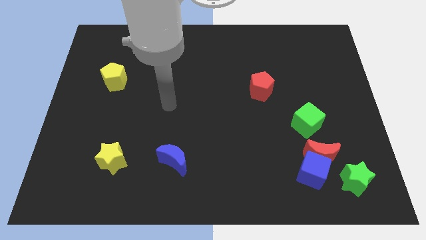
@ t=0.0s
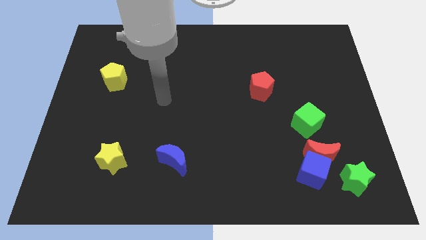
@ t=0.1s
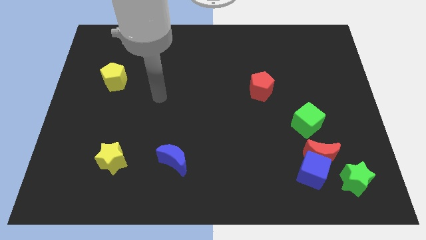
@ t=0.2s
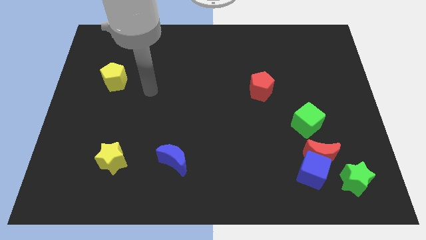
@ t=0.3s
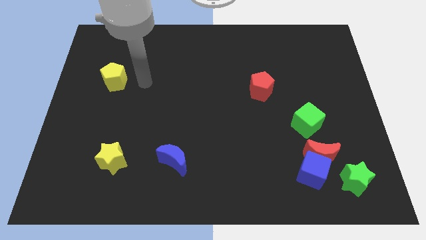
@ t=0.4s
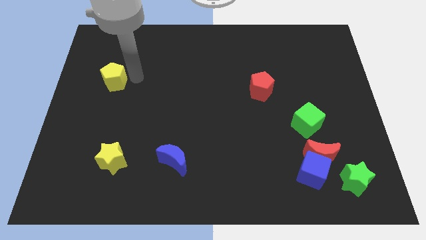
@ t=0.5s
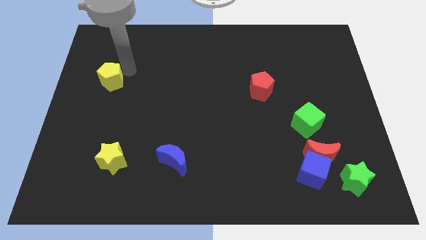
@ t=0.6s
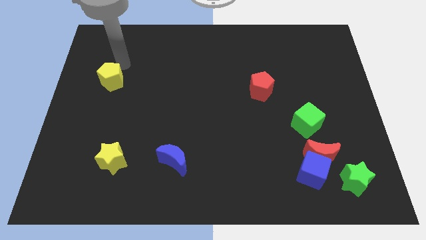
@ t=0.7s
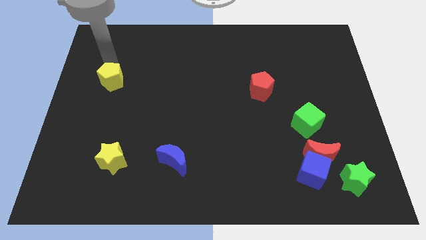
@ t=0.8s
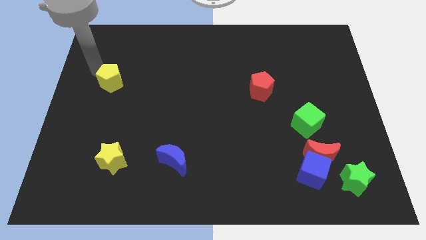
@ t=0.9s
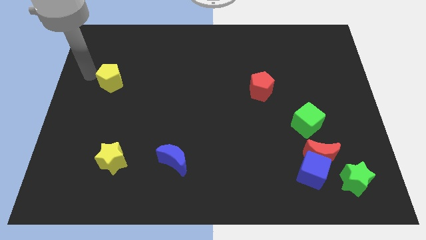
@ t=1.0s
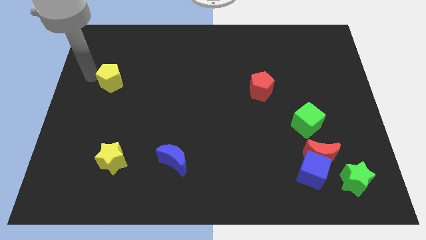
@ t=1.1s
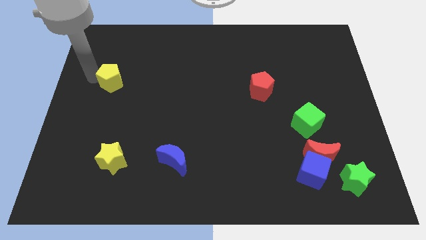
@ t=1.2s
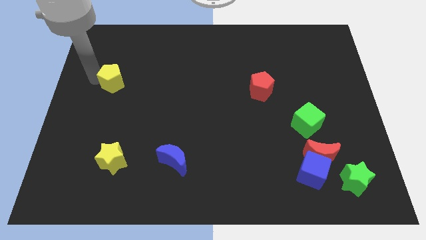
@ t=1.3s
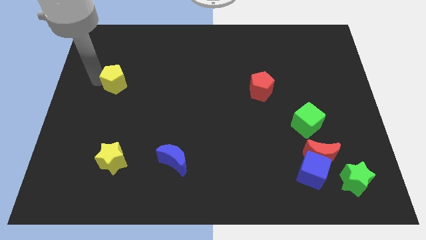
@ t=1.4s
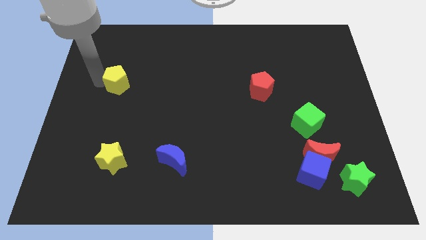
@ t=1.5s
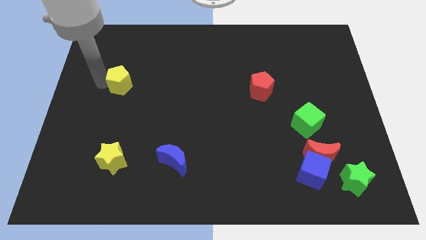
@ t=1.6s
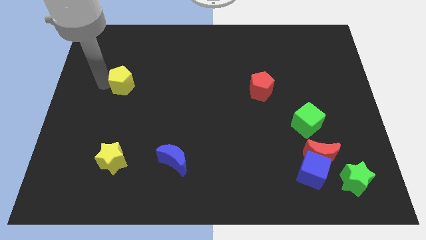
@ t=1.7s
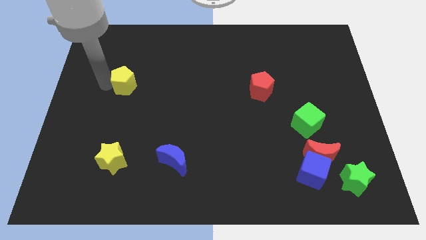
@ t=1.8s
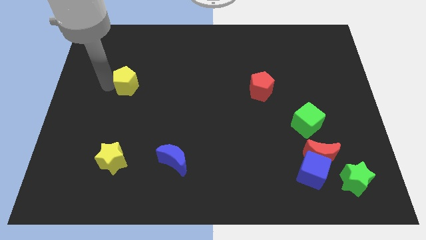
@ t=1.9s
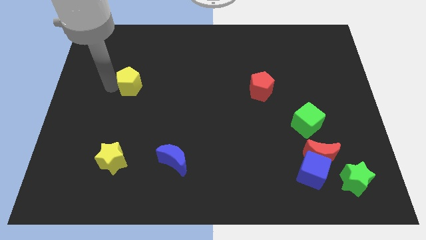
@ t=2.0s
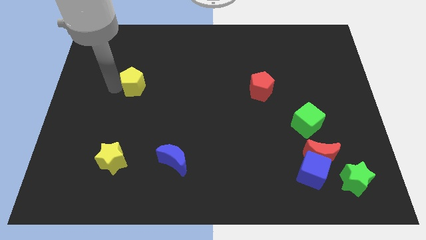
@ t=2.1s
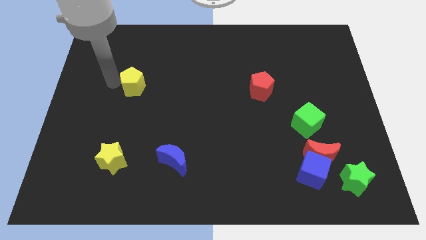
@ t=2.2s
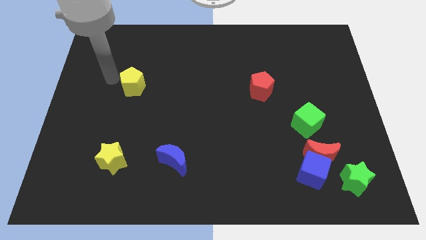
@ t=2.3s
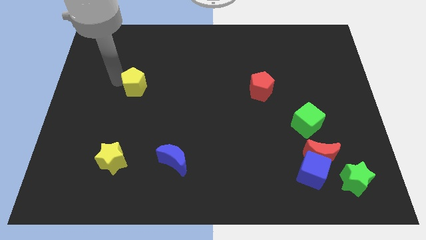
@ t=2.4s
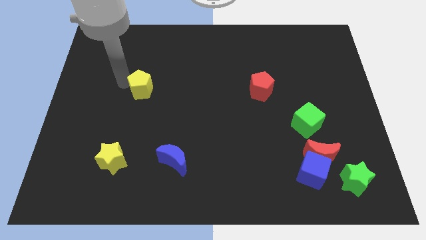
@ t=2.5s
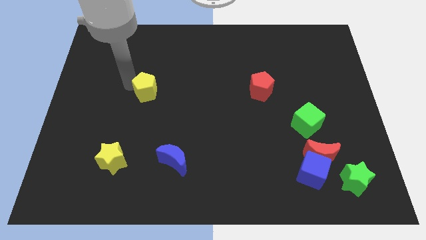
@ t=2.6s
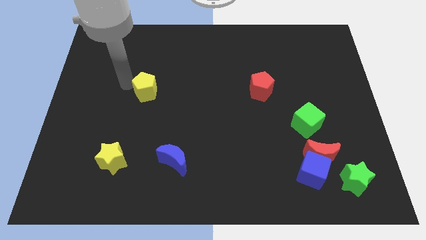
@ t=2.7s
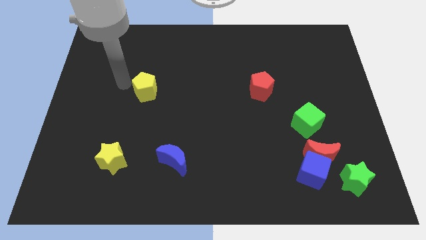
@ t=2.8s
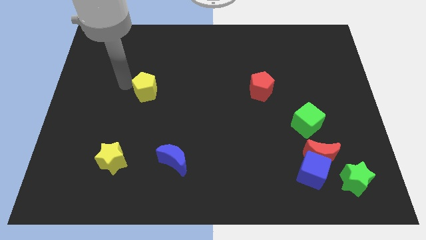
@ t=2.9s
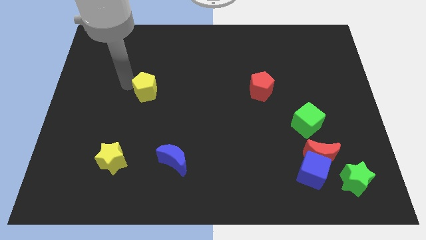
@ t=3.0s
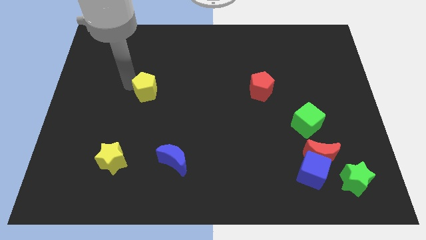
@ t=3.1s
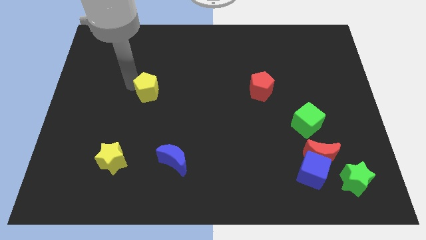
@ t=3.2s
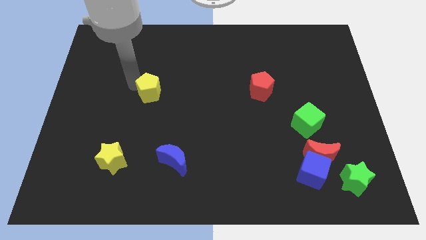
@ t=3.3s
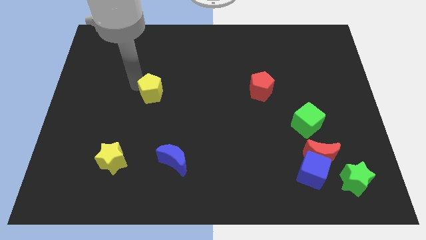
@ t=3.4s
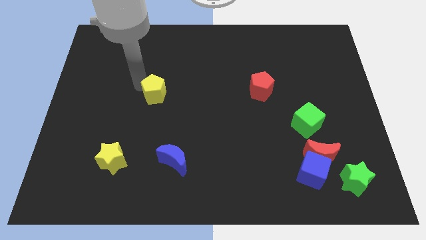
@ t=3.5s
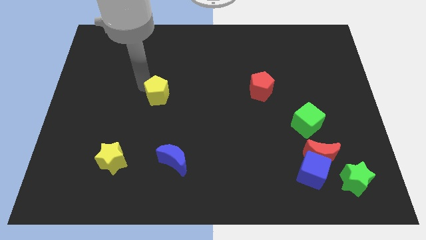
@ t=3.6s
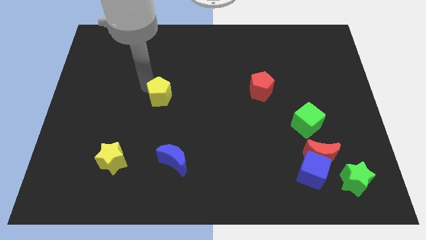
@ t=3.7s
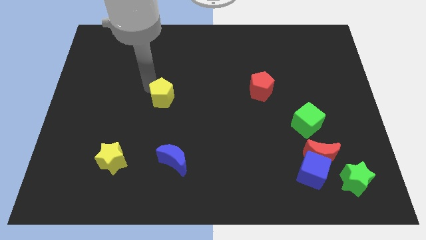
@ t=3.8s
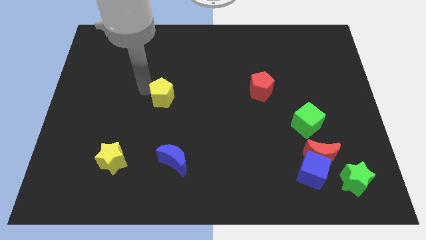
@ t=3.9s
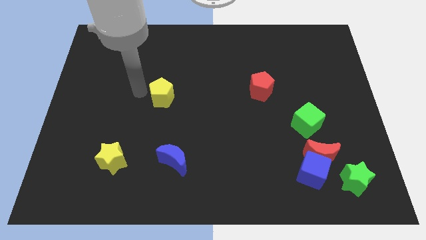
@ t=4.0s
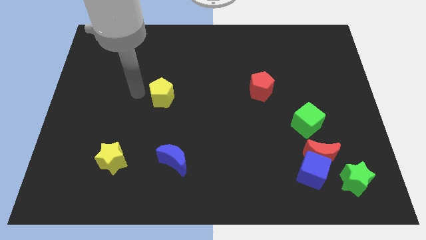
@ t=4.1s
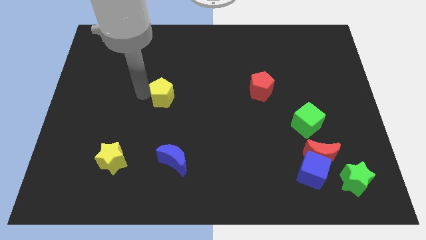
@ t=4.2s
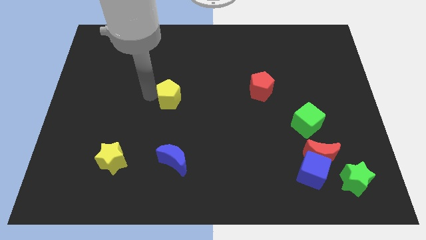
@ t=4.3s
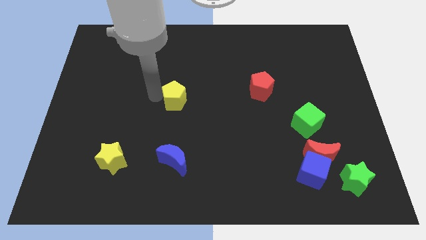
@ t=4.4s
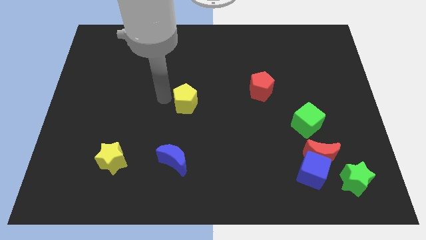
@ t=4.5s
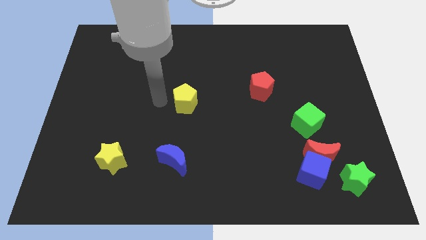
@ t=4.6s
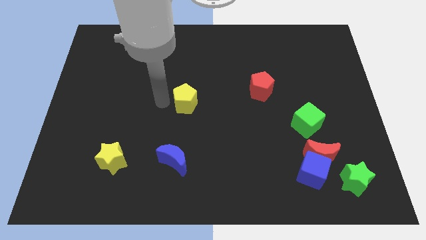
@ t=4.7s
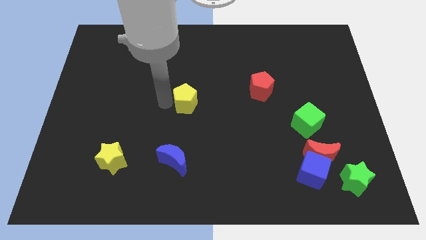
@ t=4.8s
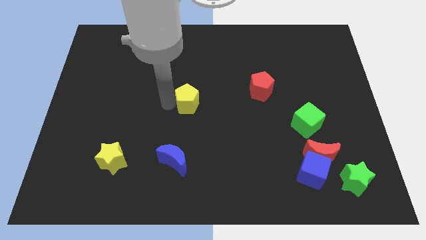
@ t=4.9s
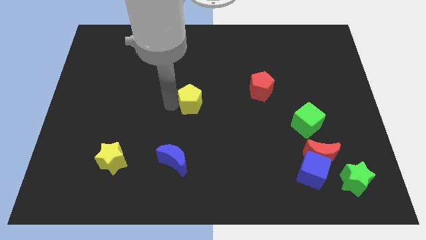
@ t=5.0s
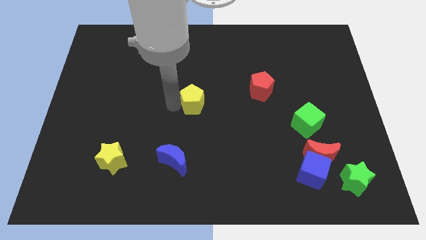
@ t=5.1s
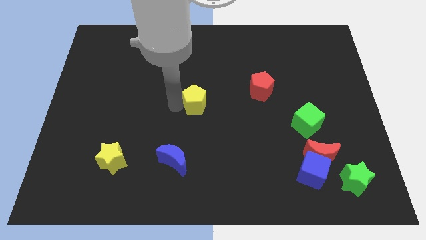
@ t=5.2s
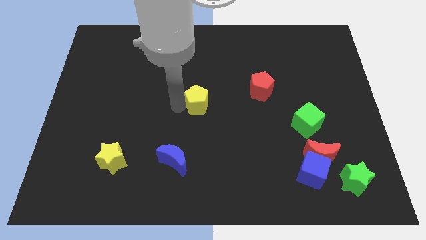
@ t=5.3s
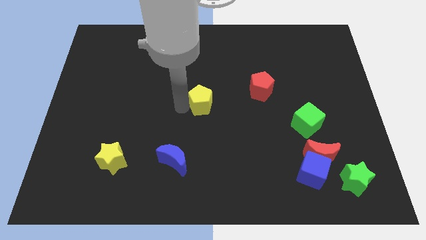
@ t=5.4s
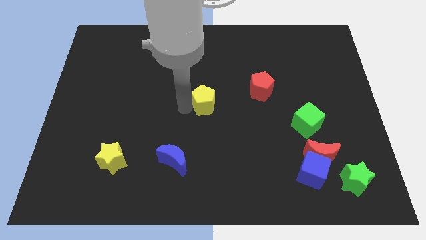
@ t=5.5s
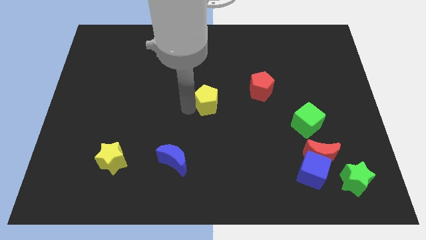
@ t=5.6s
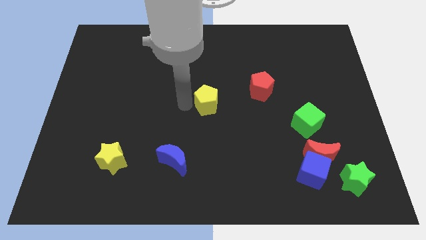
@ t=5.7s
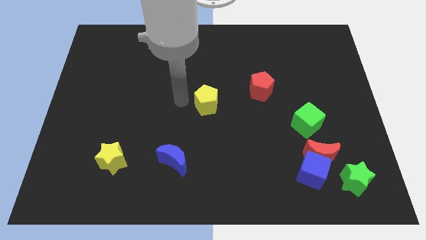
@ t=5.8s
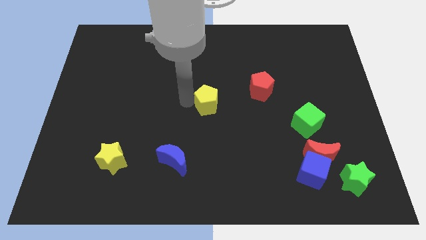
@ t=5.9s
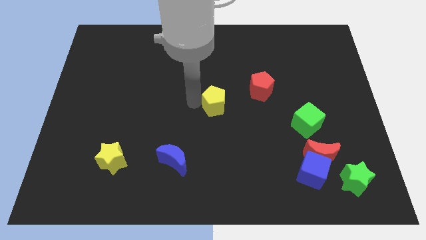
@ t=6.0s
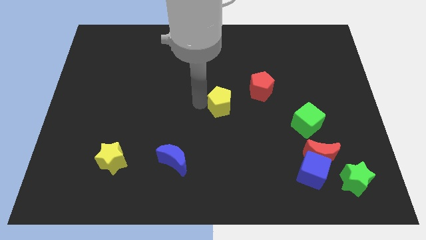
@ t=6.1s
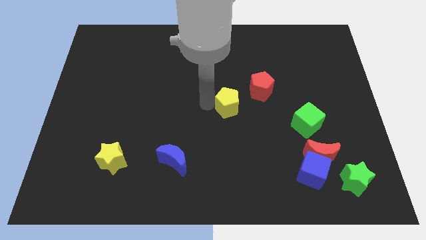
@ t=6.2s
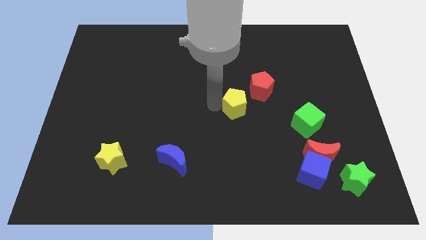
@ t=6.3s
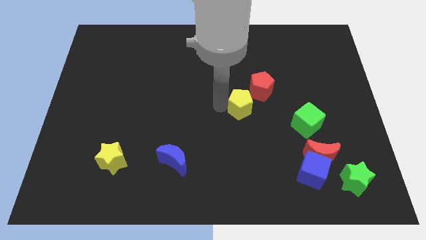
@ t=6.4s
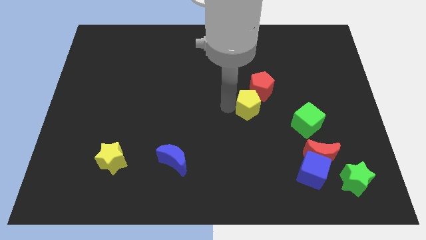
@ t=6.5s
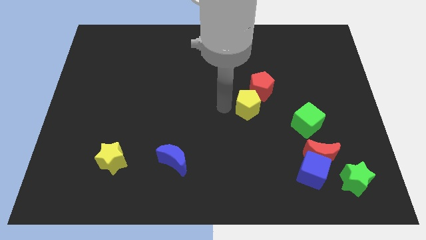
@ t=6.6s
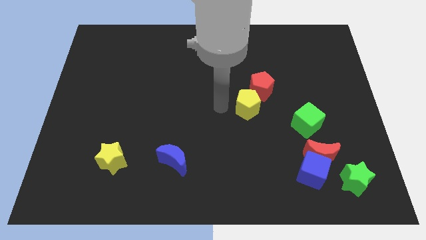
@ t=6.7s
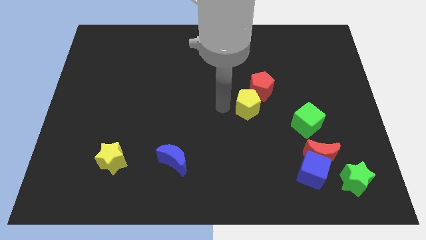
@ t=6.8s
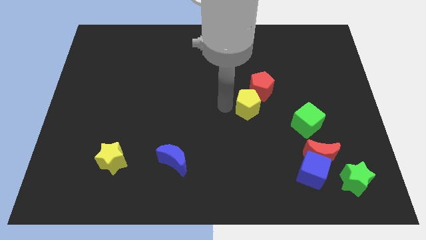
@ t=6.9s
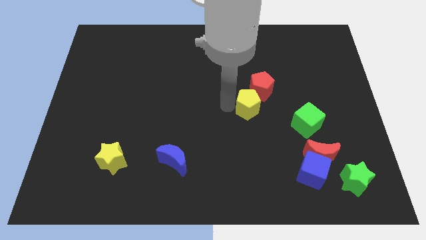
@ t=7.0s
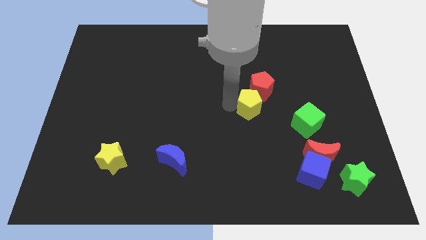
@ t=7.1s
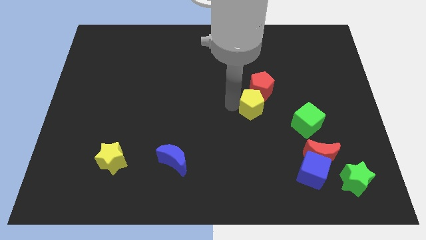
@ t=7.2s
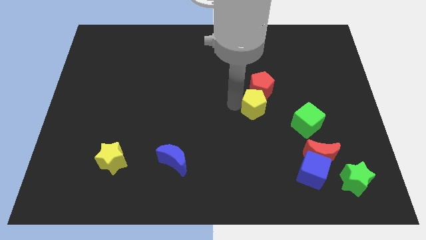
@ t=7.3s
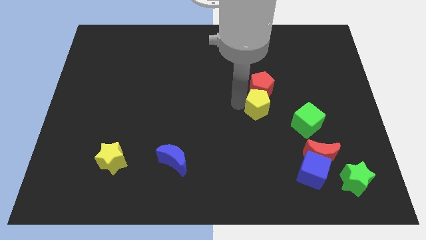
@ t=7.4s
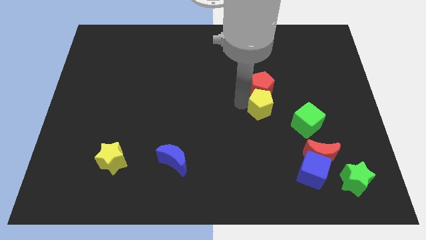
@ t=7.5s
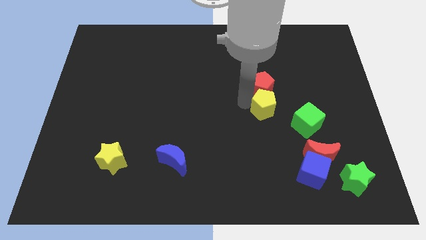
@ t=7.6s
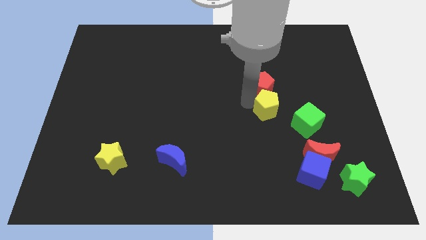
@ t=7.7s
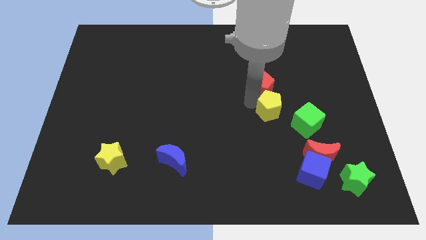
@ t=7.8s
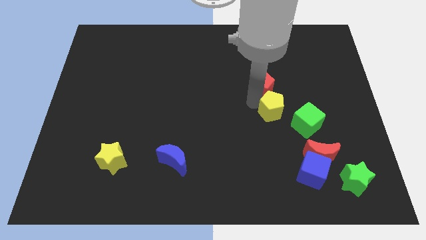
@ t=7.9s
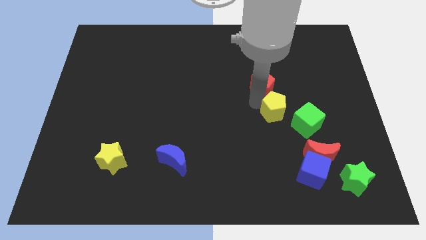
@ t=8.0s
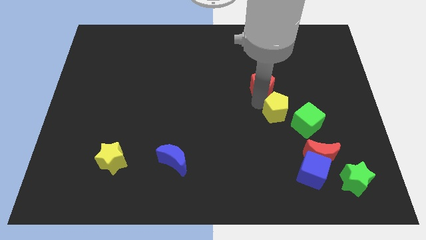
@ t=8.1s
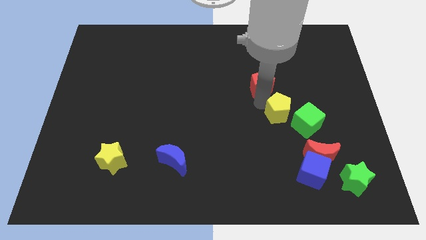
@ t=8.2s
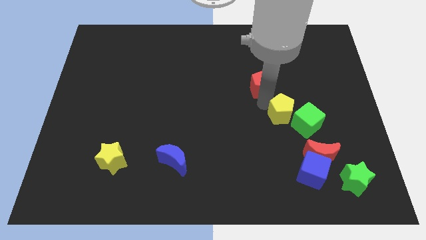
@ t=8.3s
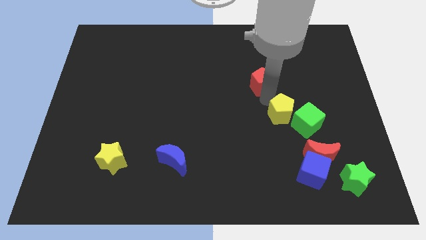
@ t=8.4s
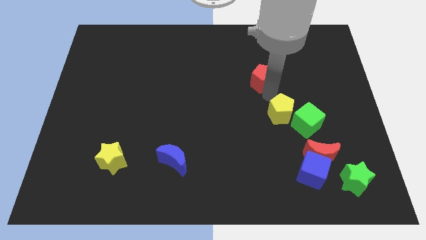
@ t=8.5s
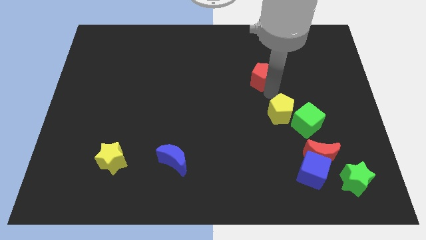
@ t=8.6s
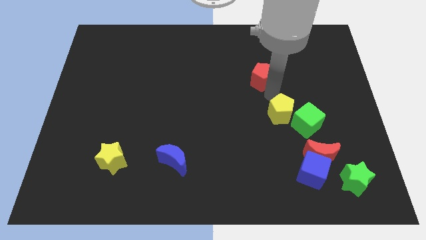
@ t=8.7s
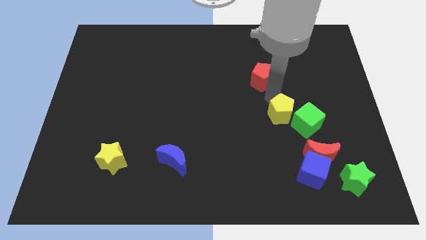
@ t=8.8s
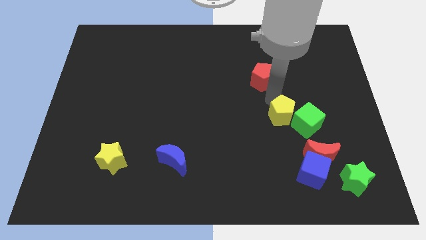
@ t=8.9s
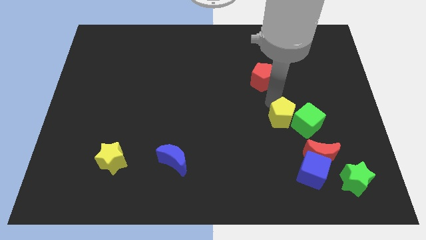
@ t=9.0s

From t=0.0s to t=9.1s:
push the yellow pentagon to the top left side of the red moon
